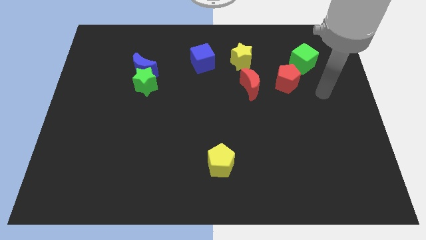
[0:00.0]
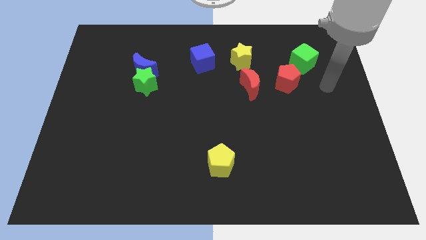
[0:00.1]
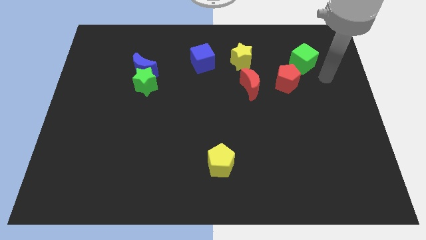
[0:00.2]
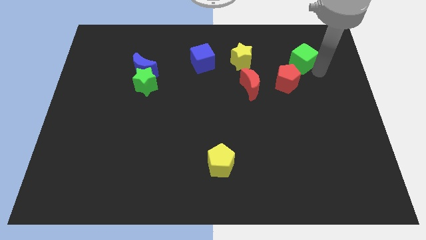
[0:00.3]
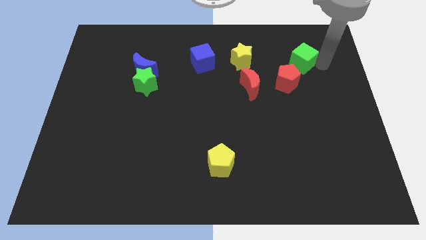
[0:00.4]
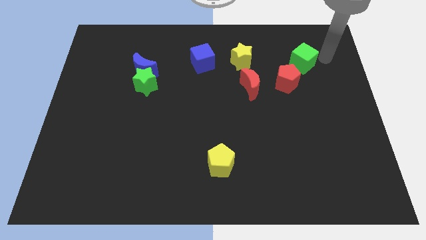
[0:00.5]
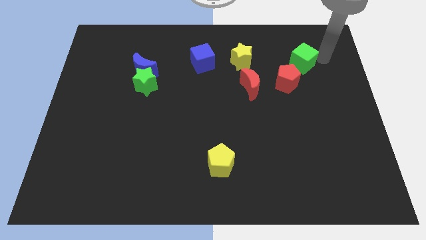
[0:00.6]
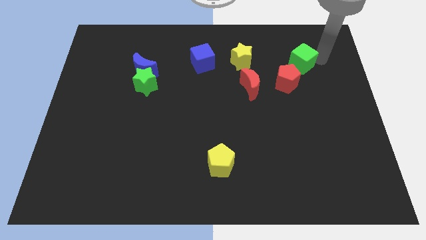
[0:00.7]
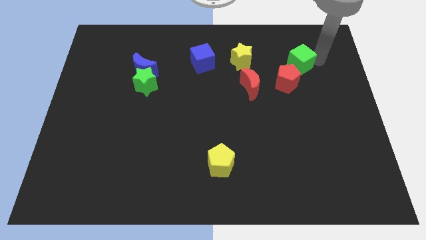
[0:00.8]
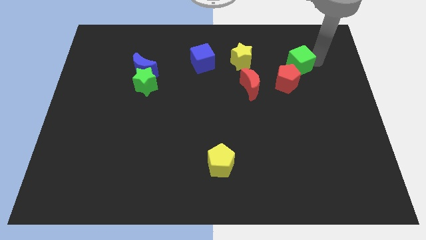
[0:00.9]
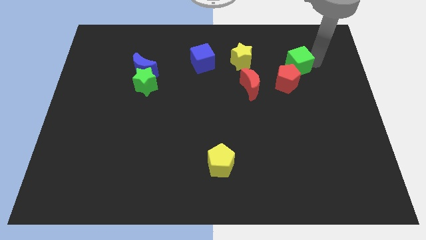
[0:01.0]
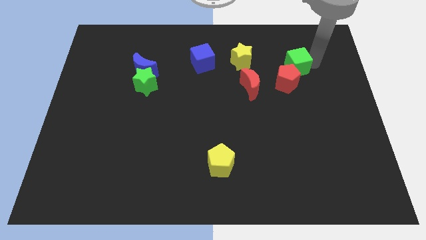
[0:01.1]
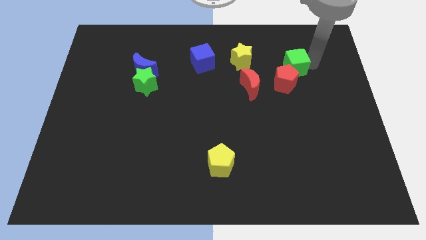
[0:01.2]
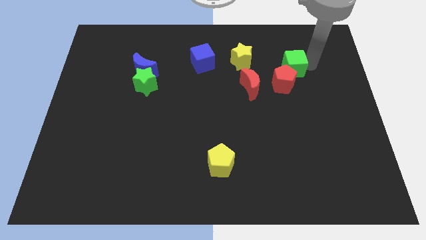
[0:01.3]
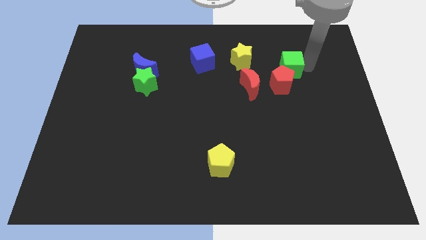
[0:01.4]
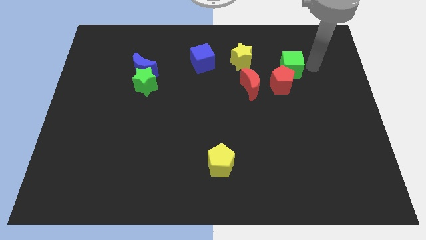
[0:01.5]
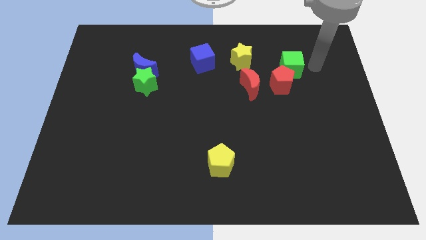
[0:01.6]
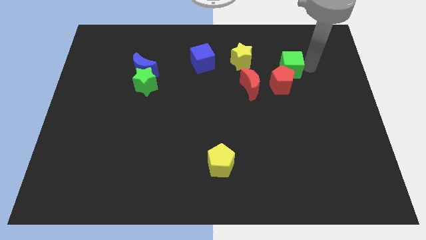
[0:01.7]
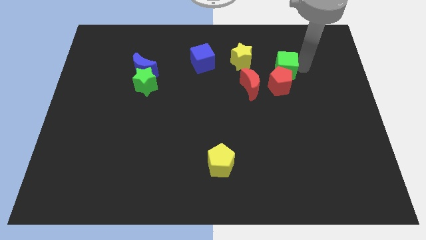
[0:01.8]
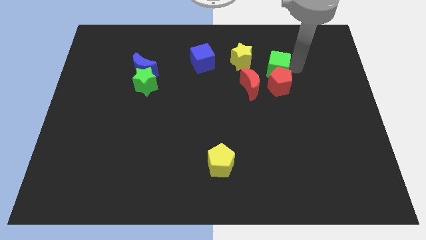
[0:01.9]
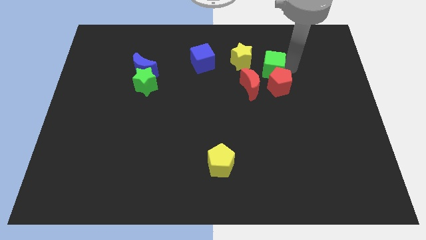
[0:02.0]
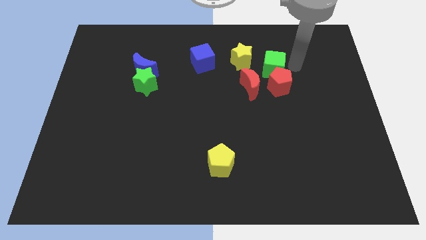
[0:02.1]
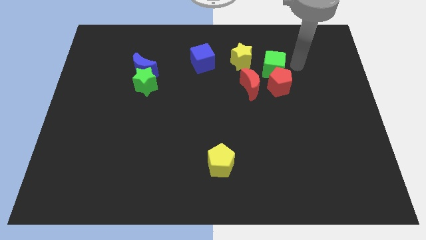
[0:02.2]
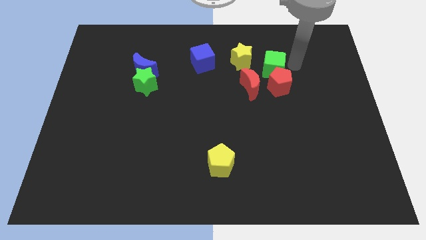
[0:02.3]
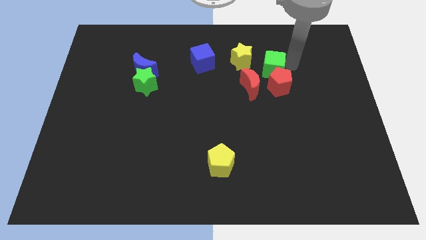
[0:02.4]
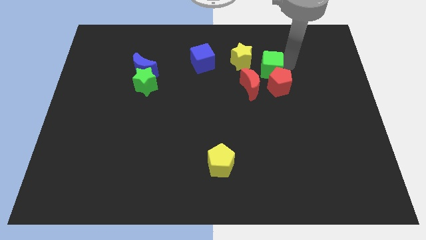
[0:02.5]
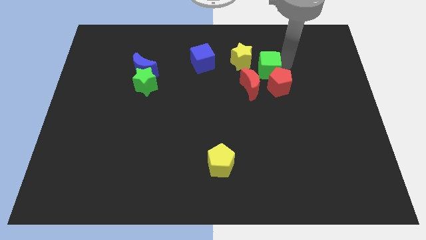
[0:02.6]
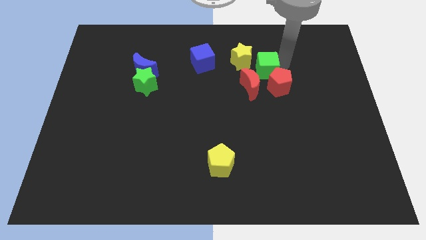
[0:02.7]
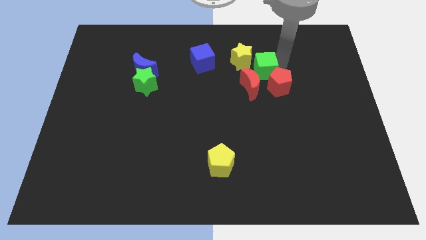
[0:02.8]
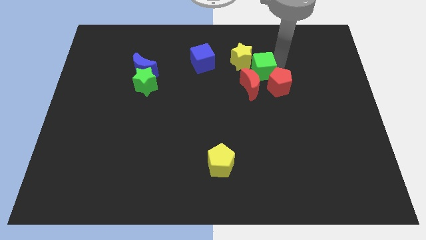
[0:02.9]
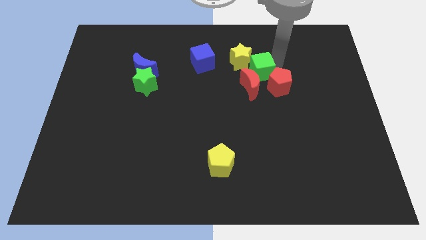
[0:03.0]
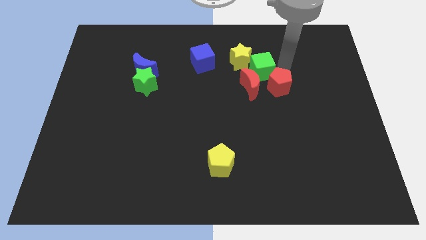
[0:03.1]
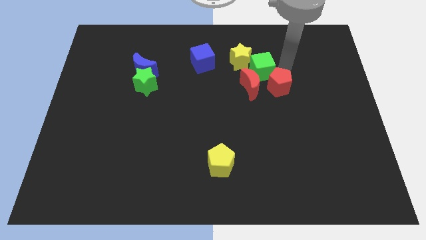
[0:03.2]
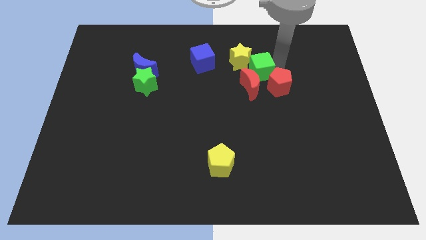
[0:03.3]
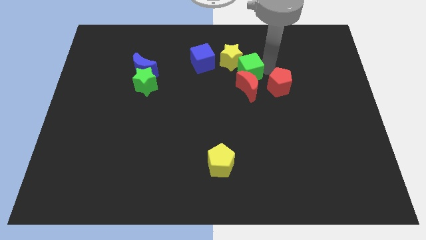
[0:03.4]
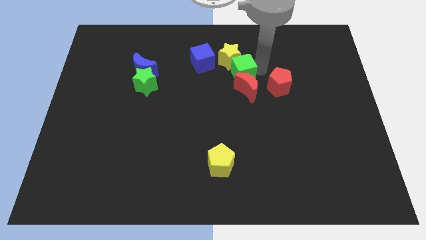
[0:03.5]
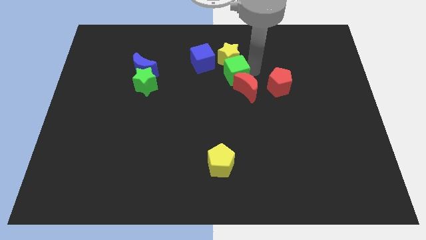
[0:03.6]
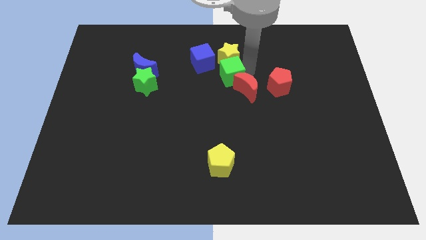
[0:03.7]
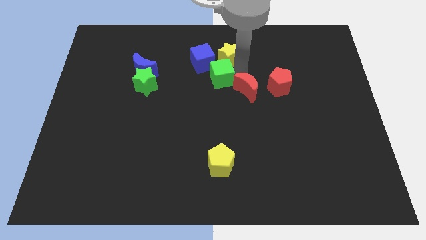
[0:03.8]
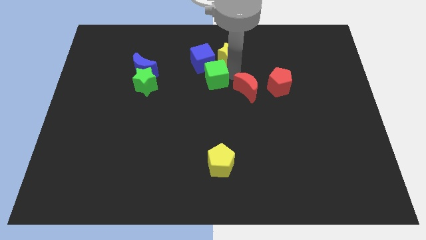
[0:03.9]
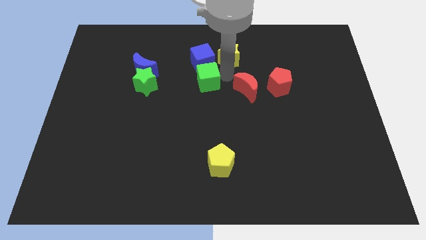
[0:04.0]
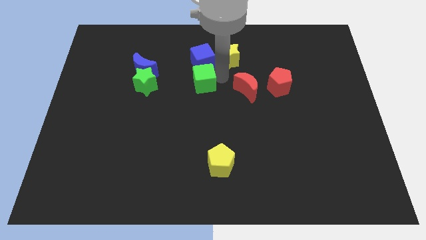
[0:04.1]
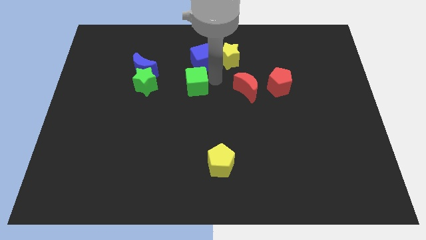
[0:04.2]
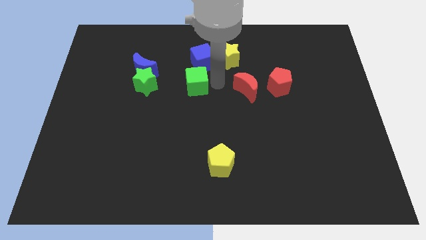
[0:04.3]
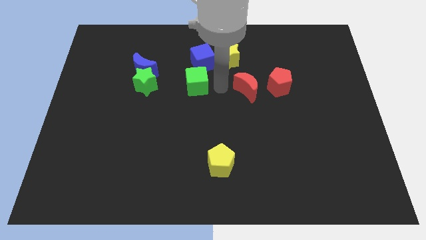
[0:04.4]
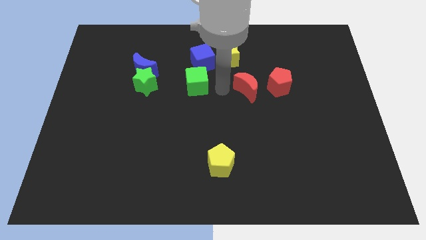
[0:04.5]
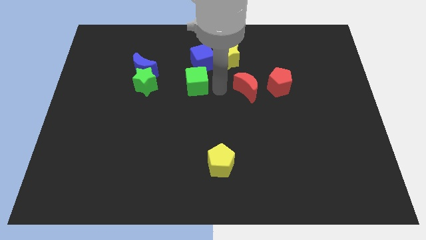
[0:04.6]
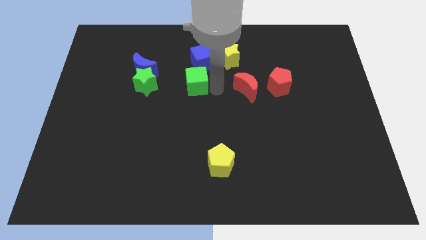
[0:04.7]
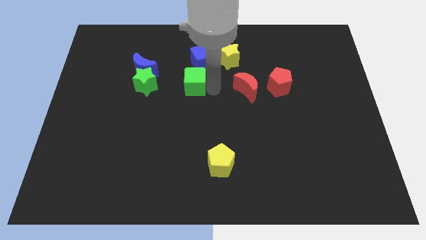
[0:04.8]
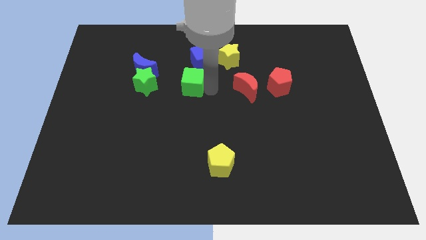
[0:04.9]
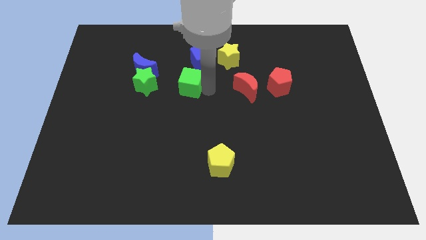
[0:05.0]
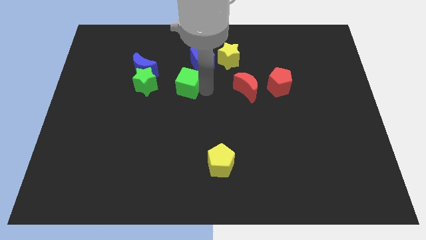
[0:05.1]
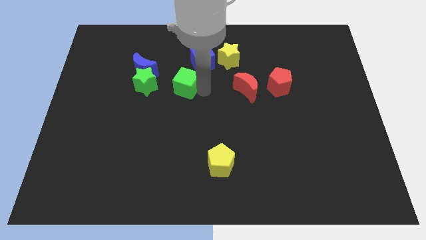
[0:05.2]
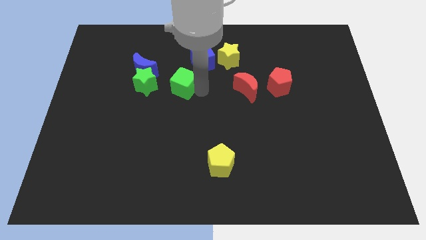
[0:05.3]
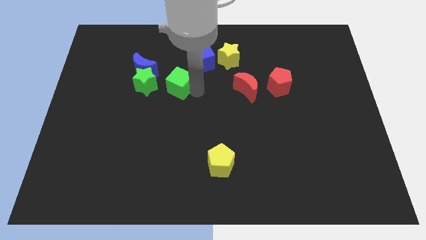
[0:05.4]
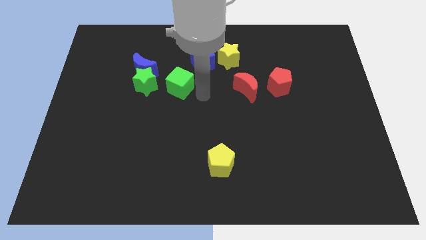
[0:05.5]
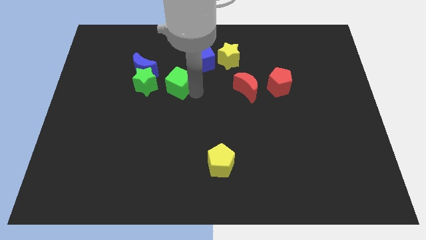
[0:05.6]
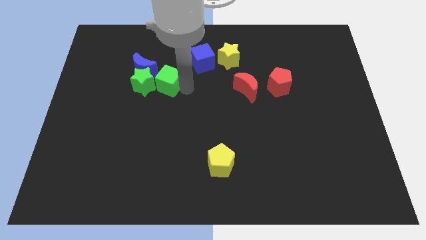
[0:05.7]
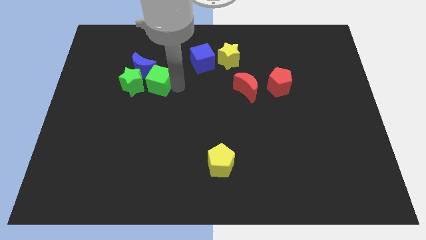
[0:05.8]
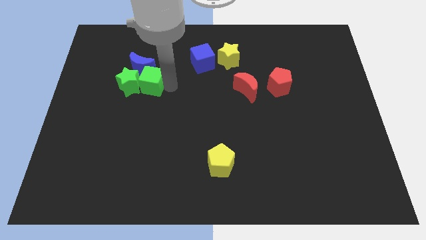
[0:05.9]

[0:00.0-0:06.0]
push the green cube close to the blue moon

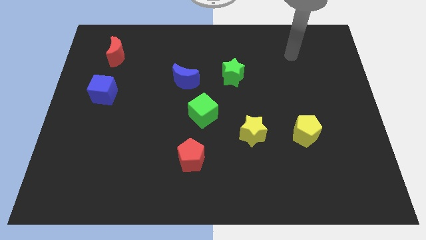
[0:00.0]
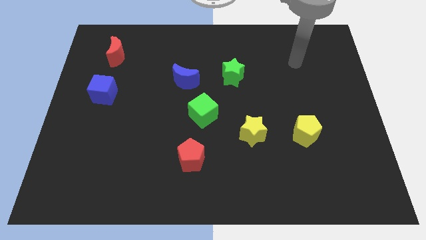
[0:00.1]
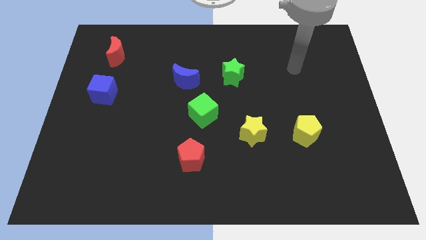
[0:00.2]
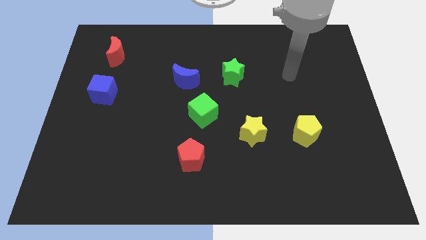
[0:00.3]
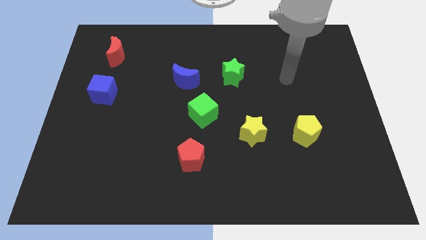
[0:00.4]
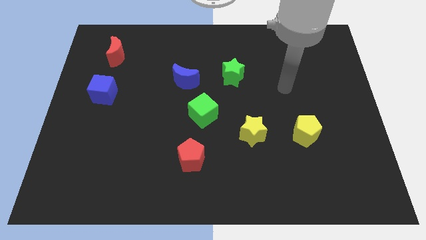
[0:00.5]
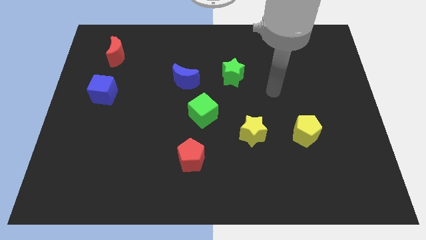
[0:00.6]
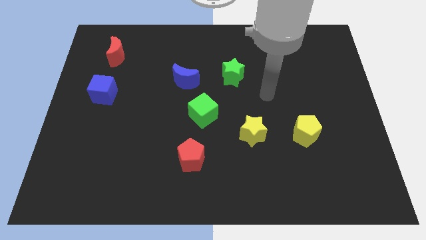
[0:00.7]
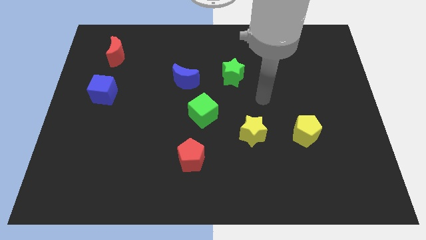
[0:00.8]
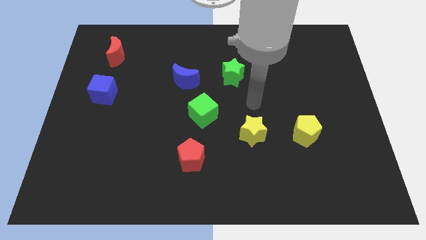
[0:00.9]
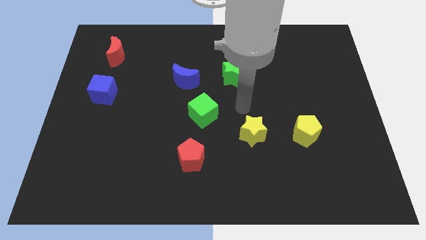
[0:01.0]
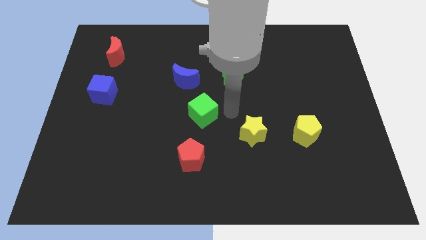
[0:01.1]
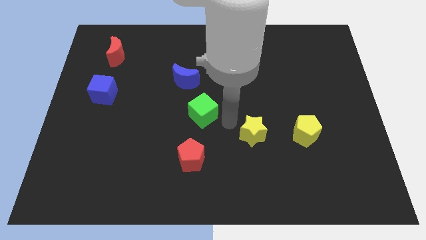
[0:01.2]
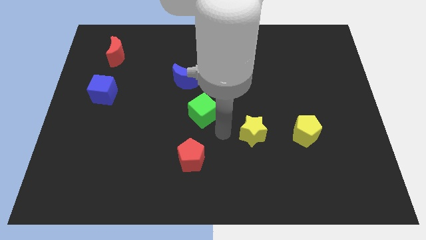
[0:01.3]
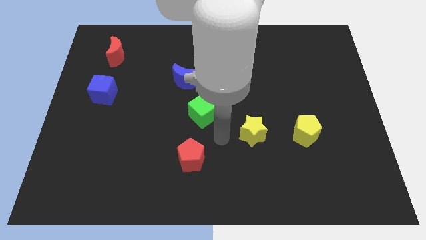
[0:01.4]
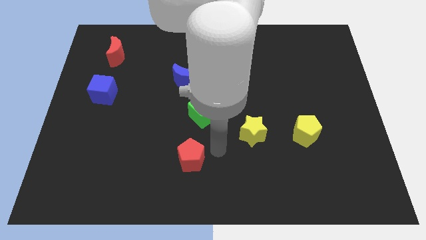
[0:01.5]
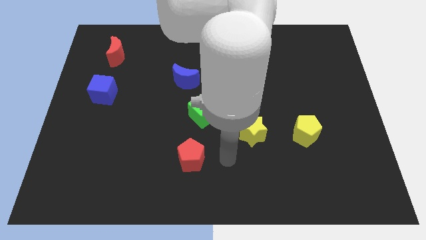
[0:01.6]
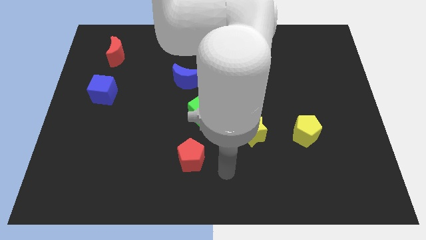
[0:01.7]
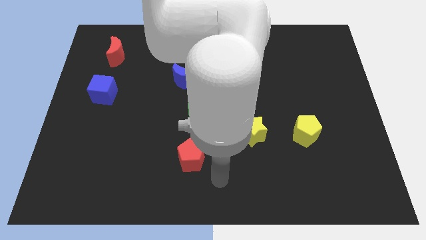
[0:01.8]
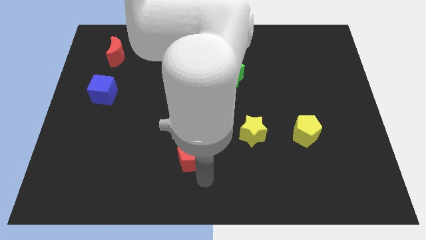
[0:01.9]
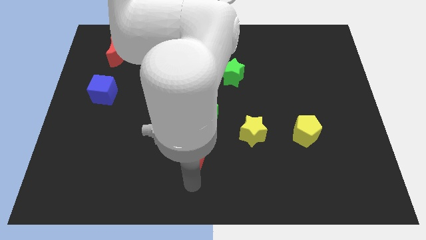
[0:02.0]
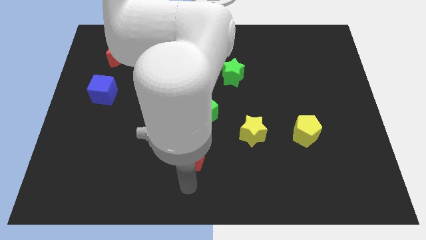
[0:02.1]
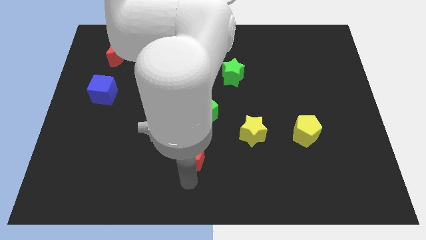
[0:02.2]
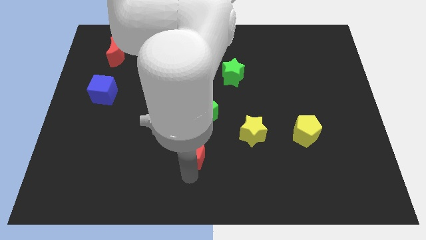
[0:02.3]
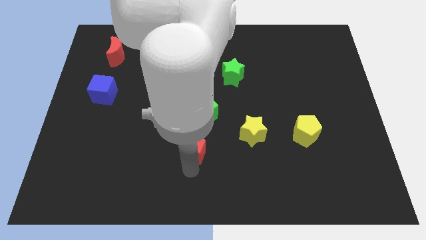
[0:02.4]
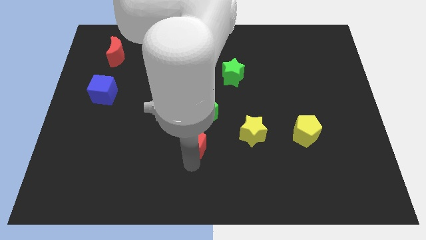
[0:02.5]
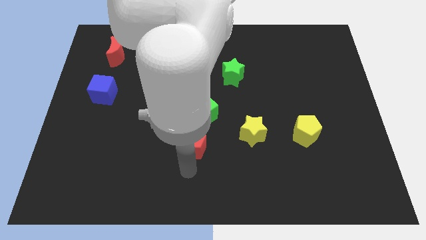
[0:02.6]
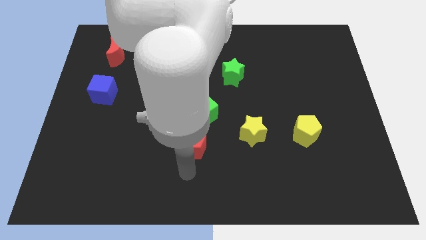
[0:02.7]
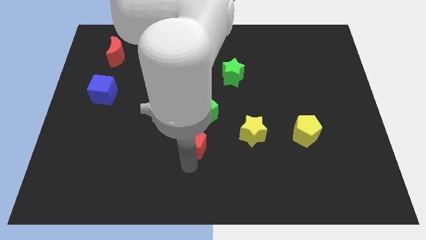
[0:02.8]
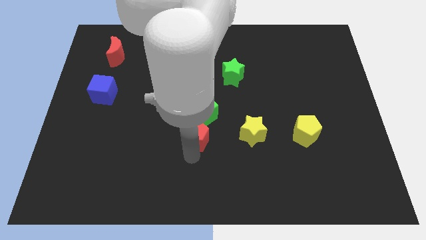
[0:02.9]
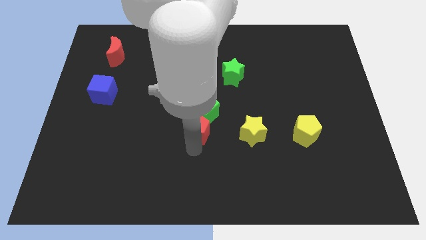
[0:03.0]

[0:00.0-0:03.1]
put the red pentagon close to the green cube
